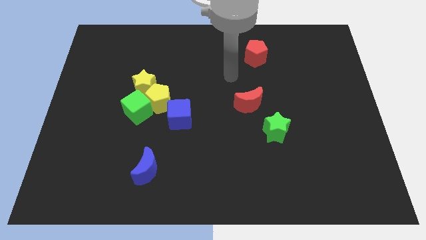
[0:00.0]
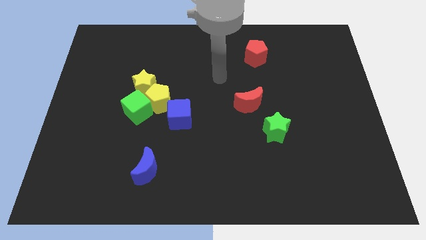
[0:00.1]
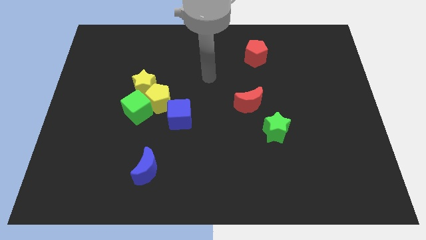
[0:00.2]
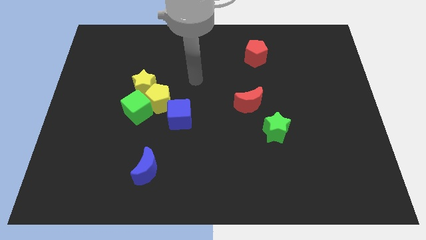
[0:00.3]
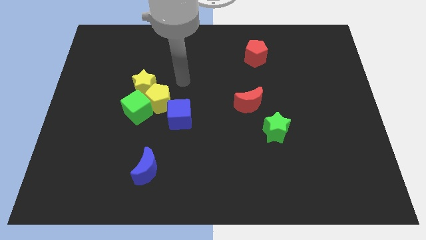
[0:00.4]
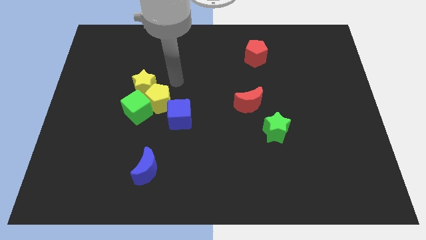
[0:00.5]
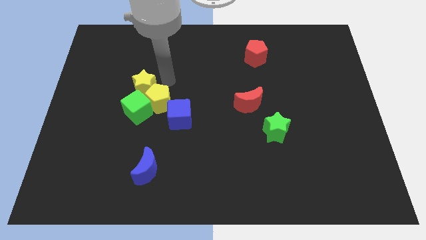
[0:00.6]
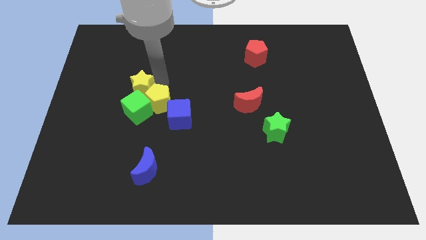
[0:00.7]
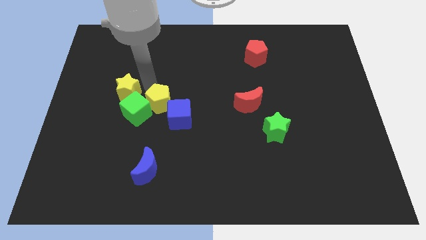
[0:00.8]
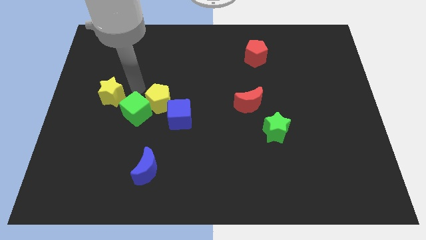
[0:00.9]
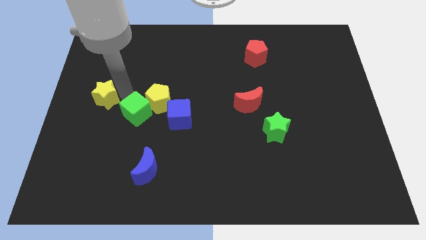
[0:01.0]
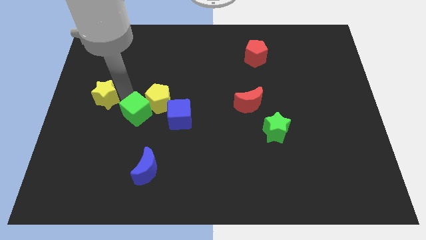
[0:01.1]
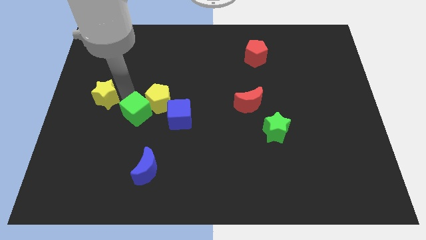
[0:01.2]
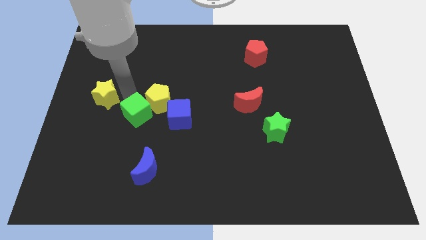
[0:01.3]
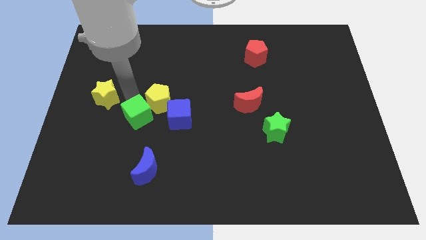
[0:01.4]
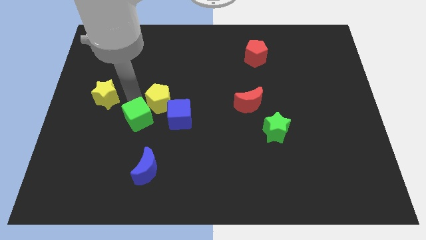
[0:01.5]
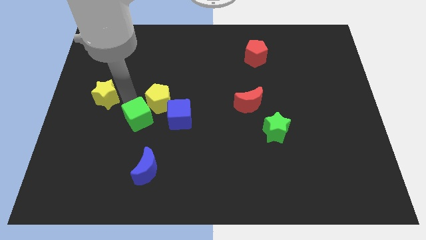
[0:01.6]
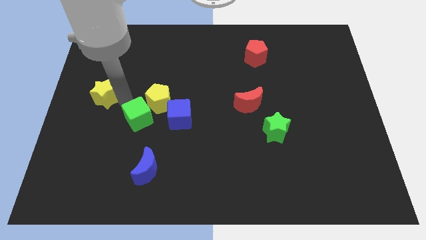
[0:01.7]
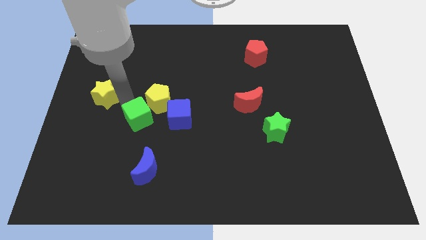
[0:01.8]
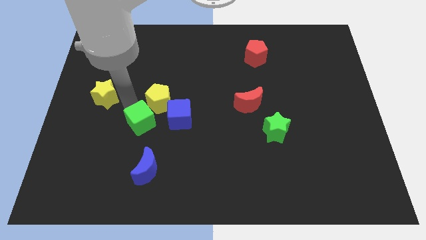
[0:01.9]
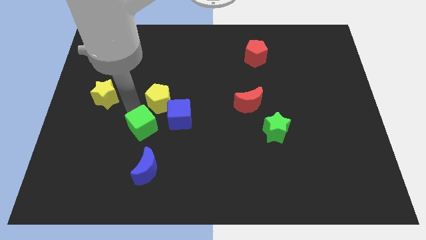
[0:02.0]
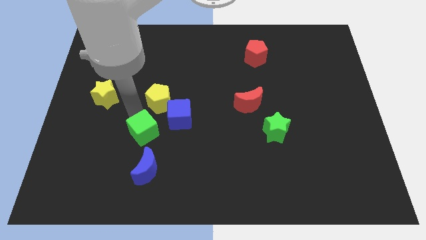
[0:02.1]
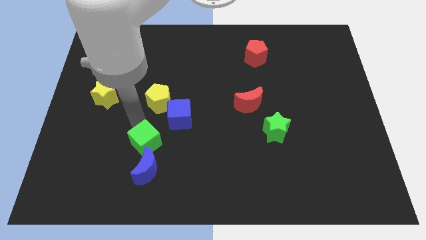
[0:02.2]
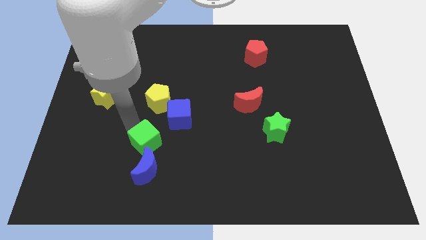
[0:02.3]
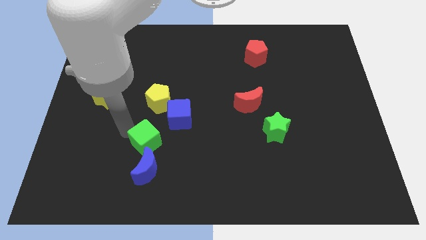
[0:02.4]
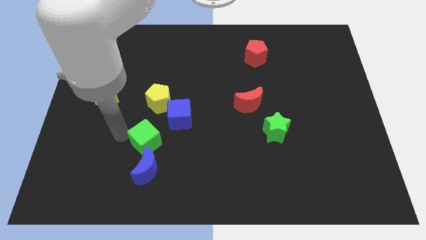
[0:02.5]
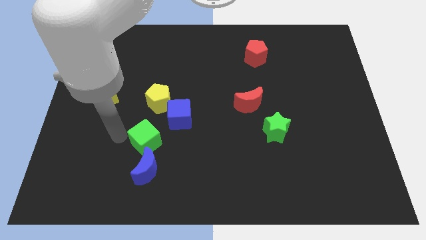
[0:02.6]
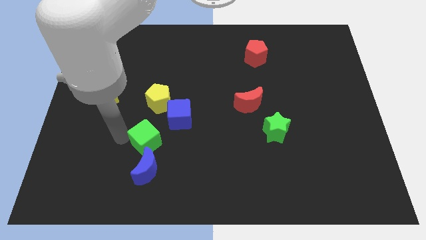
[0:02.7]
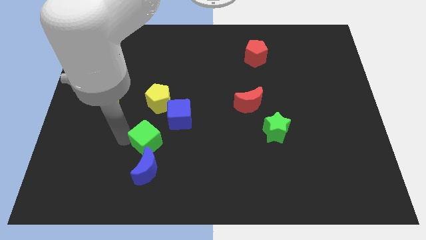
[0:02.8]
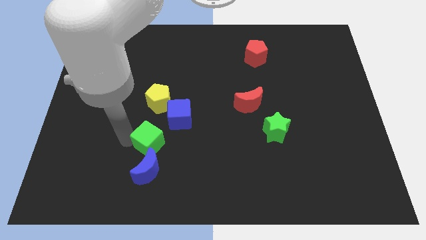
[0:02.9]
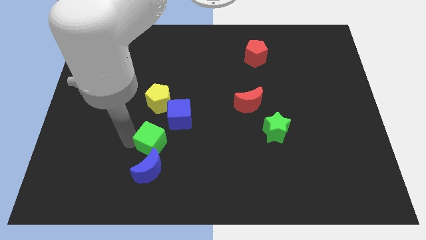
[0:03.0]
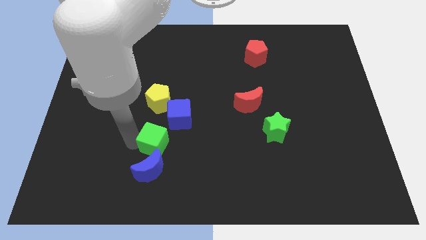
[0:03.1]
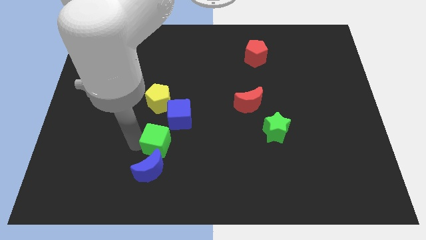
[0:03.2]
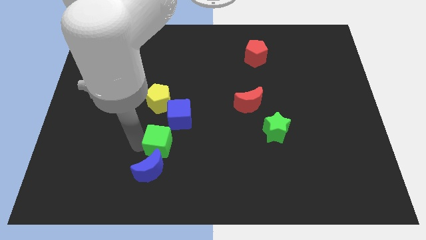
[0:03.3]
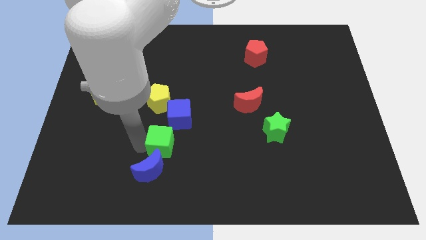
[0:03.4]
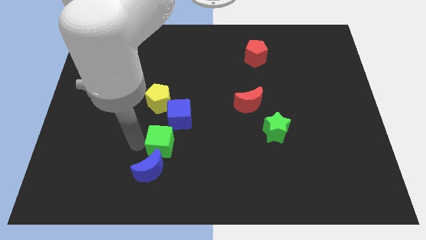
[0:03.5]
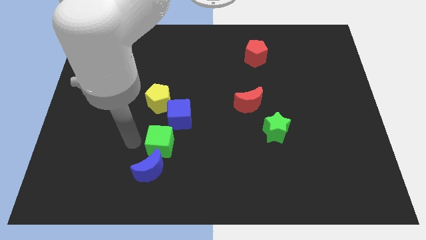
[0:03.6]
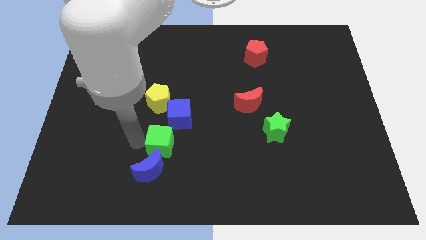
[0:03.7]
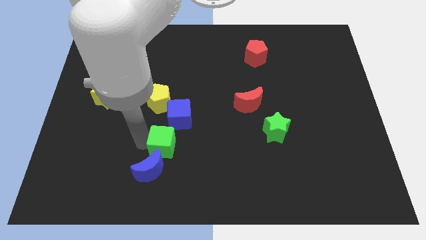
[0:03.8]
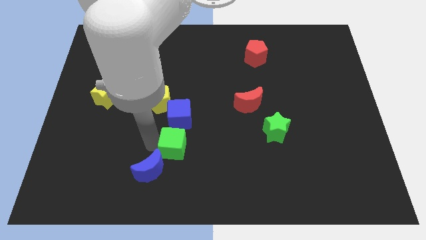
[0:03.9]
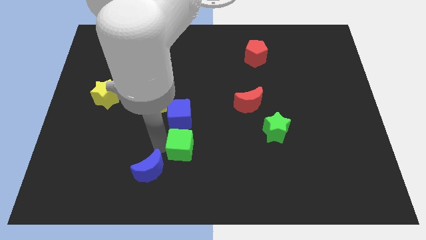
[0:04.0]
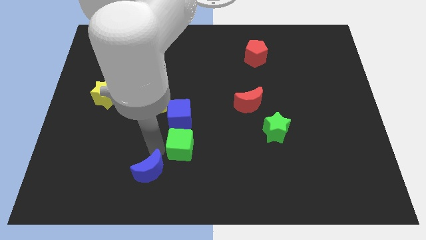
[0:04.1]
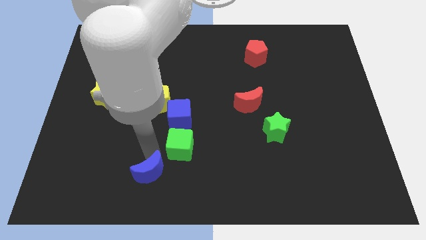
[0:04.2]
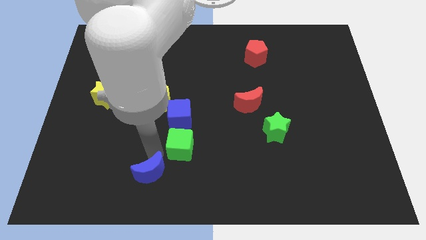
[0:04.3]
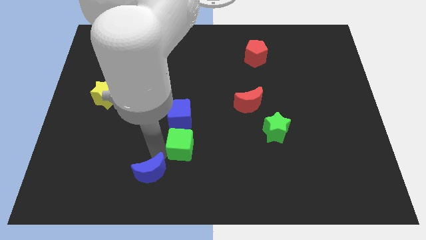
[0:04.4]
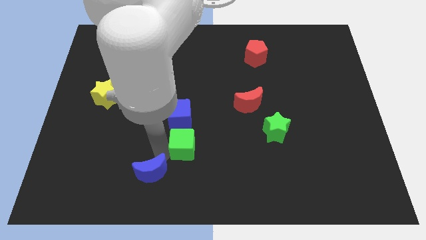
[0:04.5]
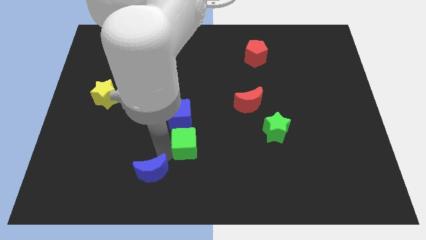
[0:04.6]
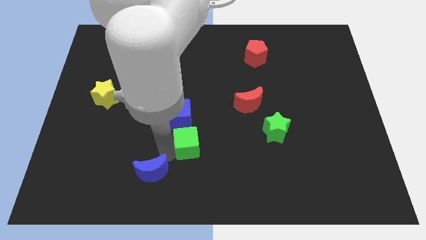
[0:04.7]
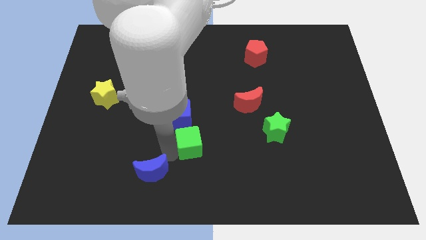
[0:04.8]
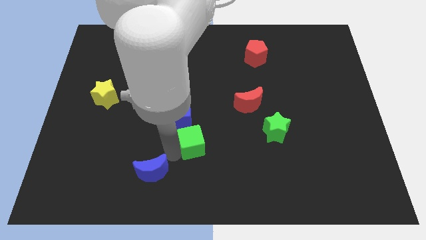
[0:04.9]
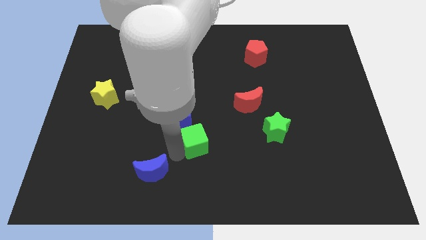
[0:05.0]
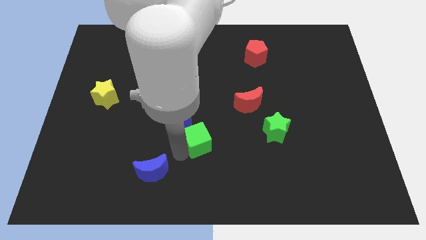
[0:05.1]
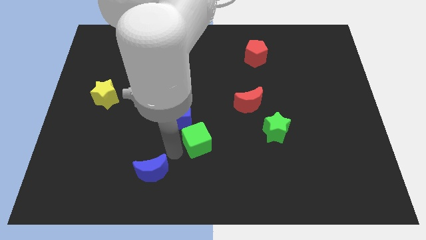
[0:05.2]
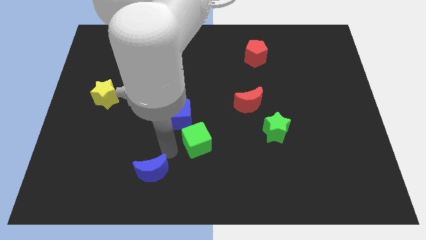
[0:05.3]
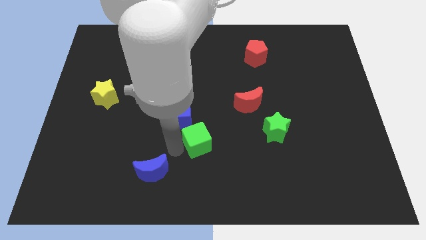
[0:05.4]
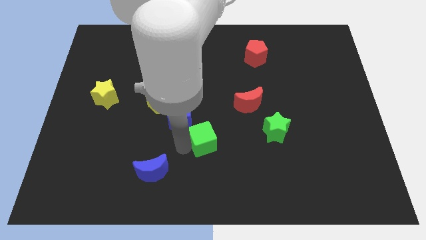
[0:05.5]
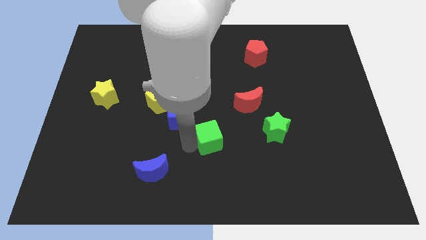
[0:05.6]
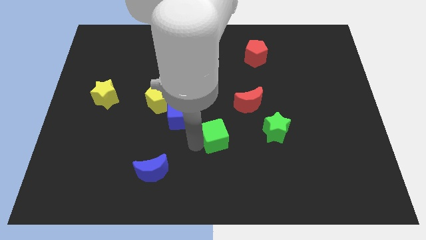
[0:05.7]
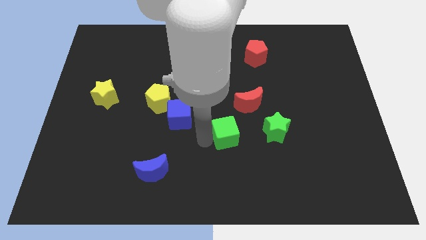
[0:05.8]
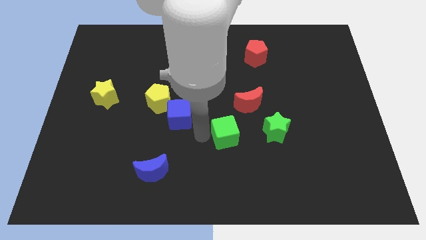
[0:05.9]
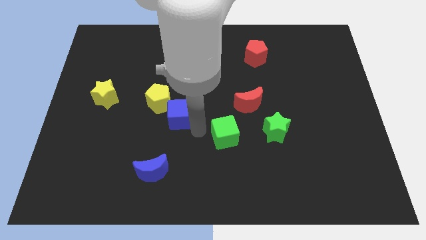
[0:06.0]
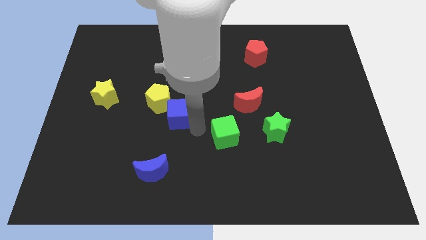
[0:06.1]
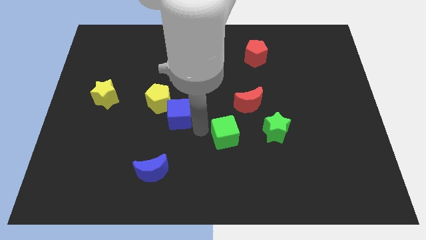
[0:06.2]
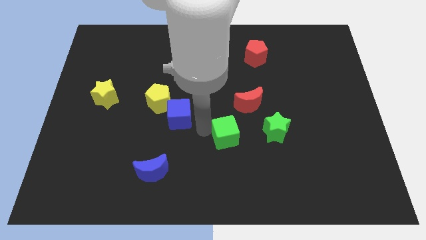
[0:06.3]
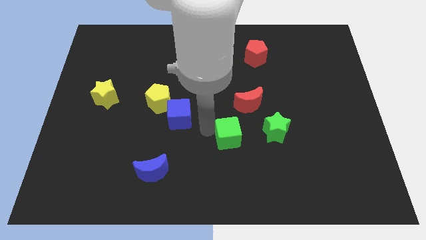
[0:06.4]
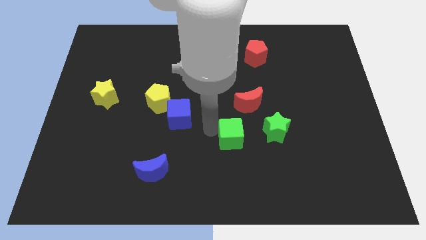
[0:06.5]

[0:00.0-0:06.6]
put the green cube below the red moon
